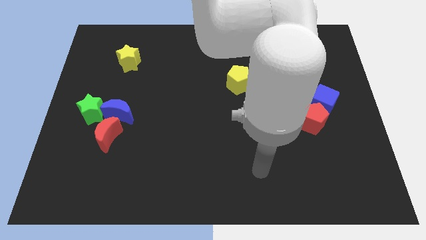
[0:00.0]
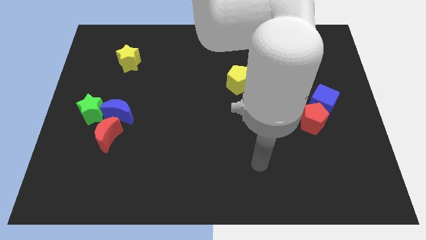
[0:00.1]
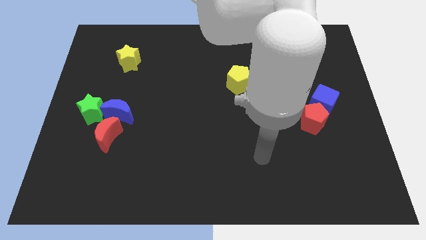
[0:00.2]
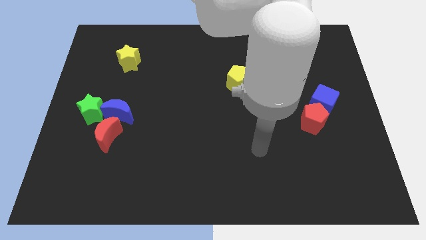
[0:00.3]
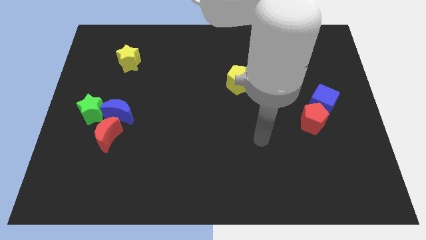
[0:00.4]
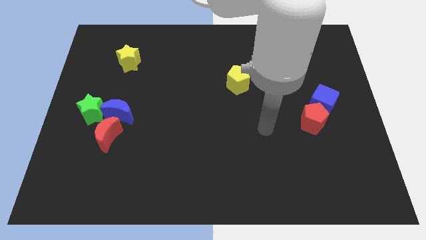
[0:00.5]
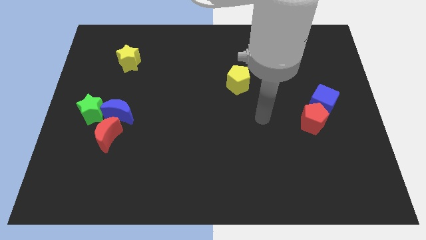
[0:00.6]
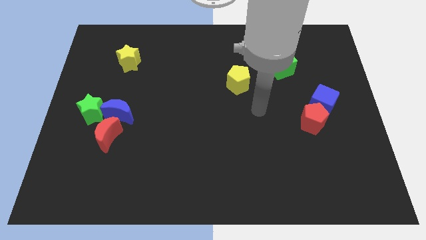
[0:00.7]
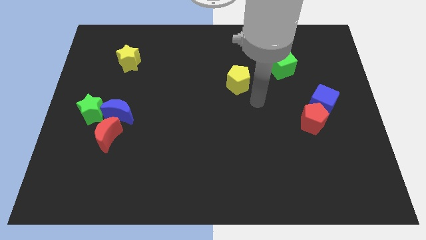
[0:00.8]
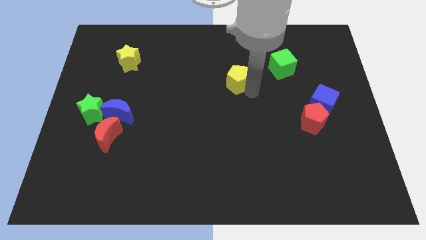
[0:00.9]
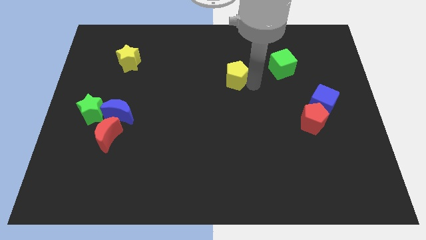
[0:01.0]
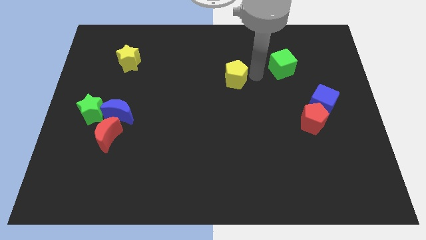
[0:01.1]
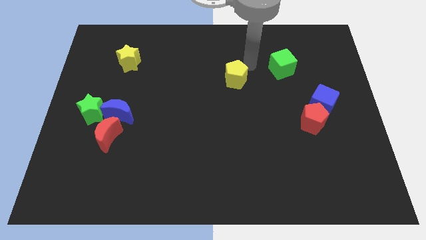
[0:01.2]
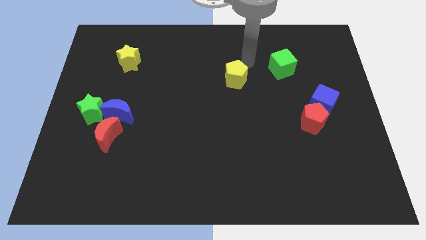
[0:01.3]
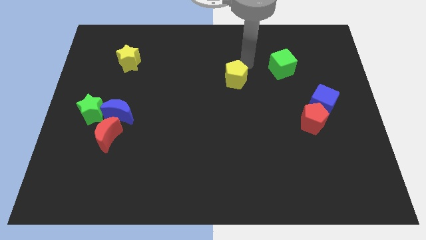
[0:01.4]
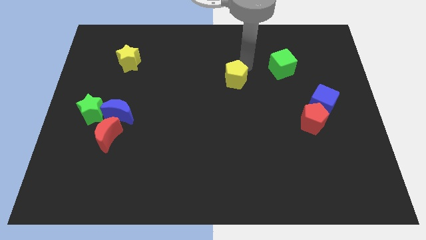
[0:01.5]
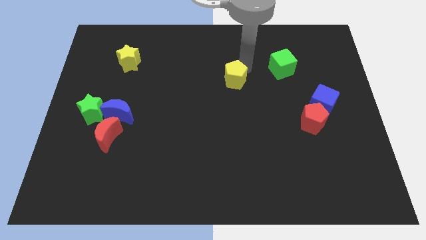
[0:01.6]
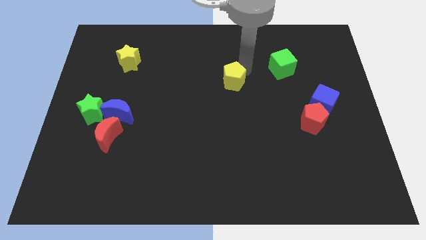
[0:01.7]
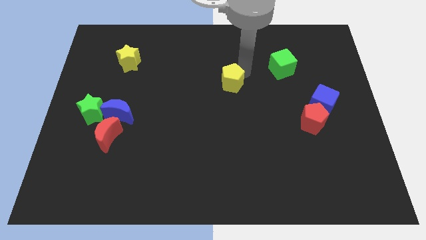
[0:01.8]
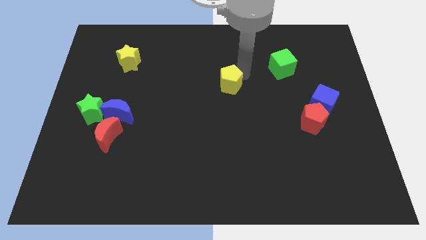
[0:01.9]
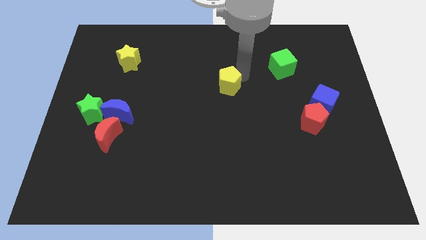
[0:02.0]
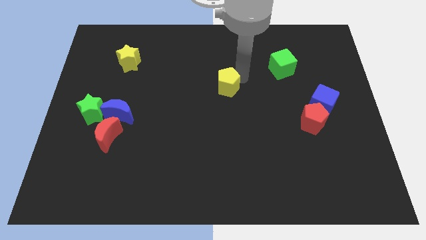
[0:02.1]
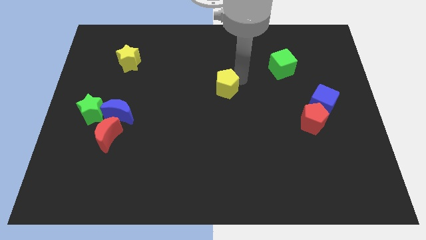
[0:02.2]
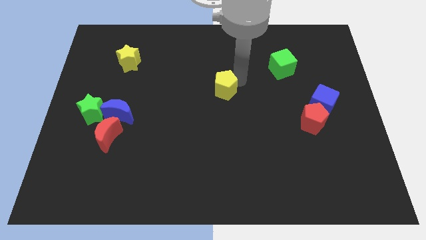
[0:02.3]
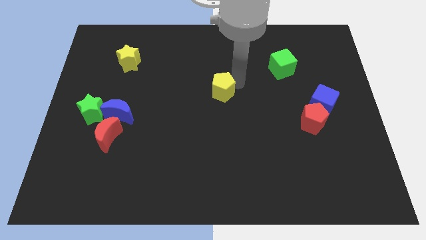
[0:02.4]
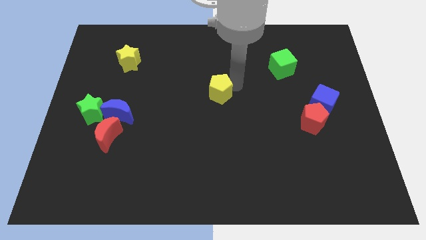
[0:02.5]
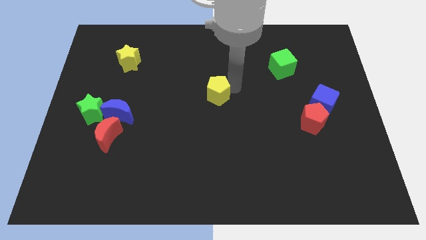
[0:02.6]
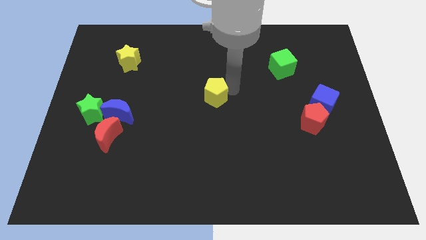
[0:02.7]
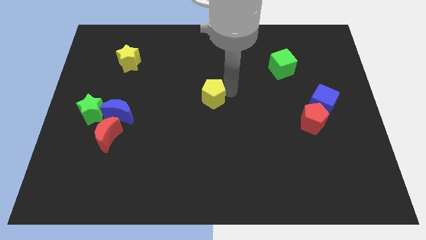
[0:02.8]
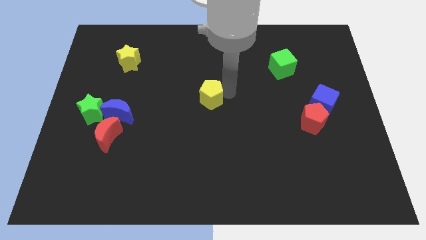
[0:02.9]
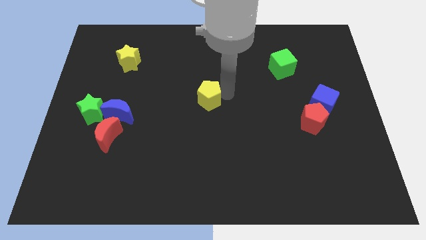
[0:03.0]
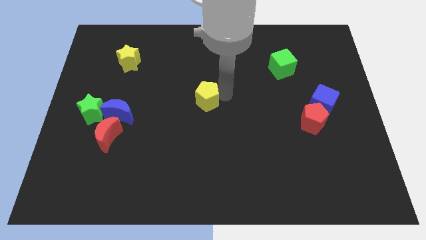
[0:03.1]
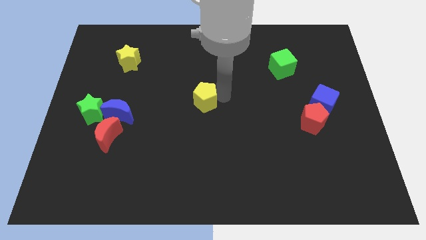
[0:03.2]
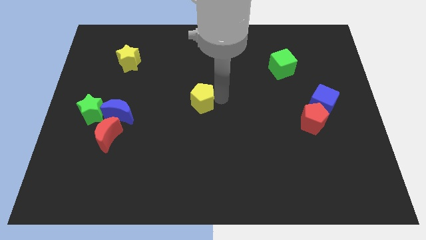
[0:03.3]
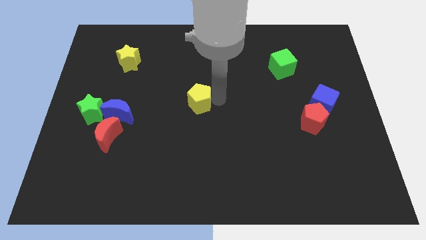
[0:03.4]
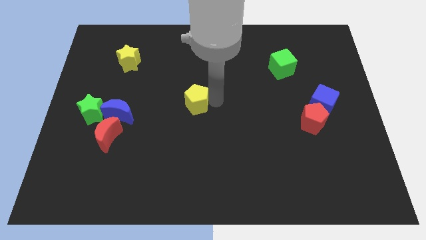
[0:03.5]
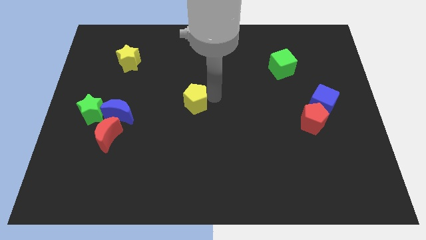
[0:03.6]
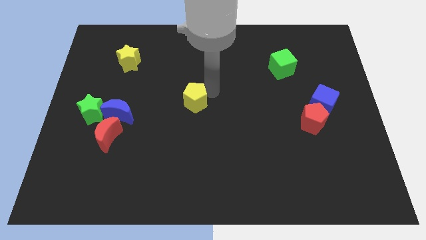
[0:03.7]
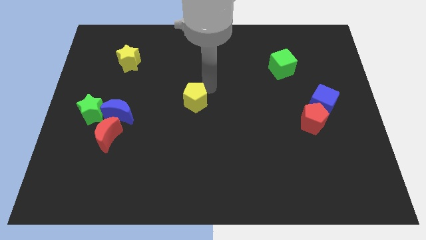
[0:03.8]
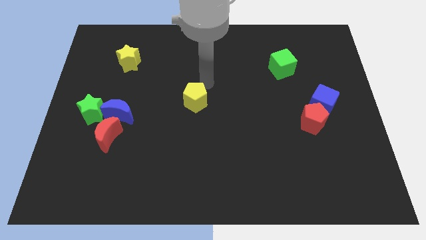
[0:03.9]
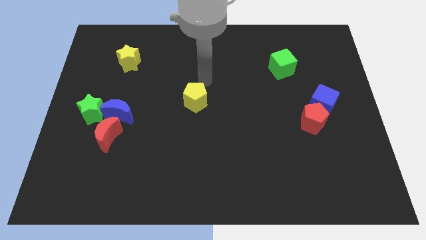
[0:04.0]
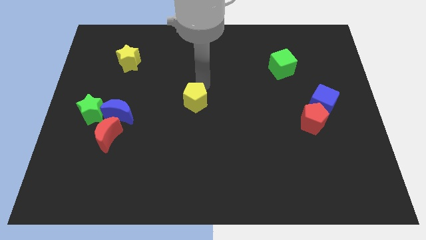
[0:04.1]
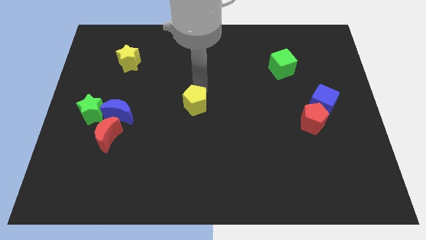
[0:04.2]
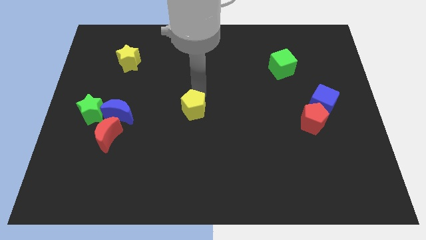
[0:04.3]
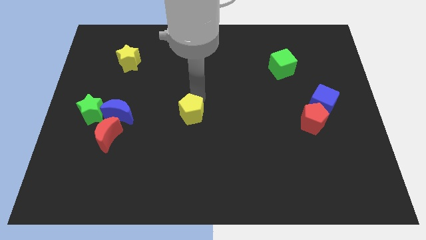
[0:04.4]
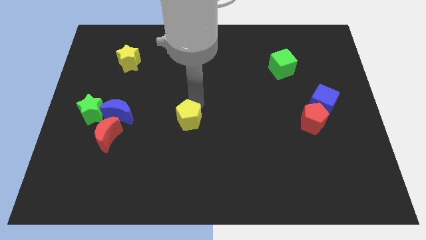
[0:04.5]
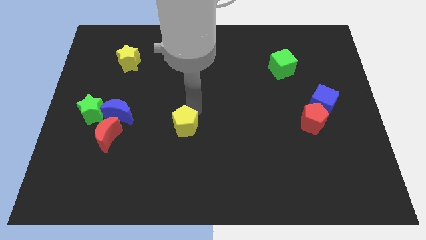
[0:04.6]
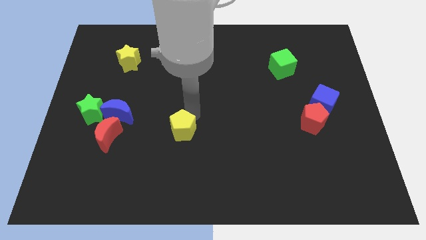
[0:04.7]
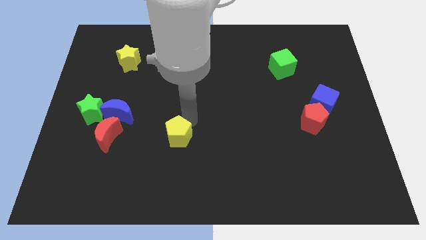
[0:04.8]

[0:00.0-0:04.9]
slide the yellow pentagon downwards and then to the left

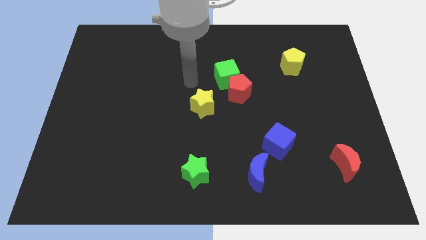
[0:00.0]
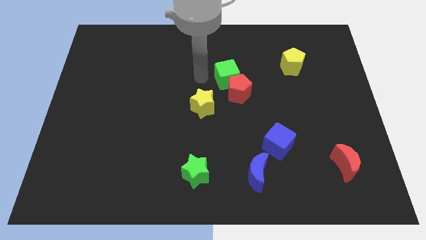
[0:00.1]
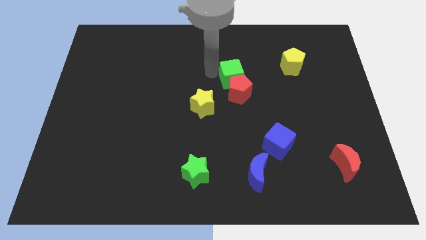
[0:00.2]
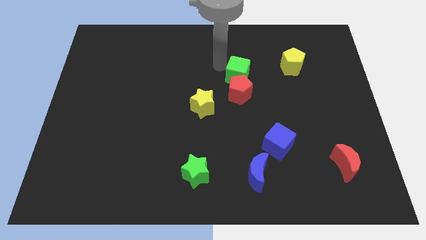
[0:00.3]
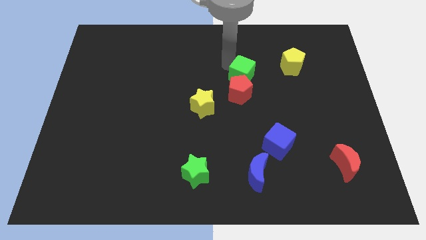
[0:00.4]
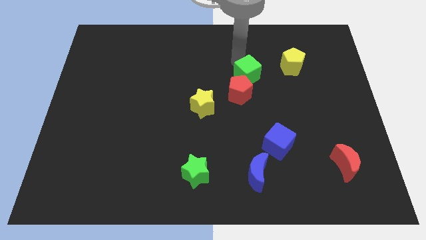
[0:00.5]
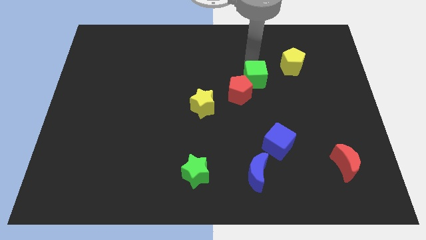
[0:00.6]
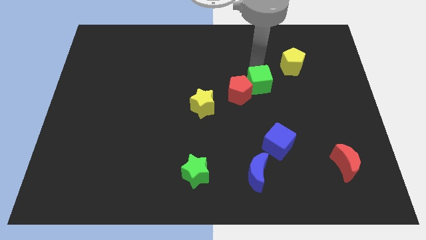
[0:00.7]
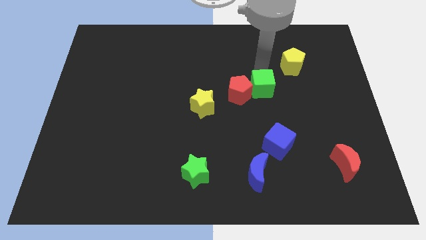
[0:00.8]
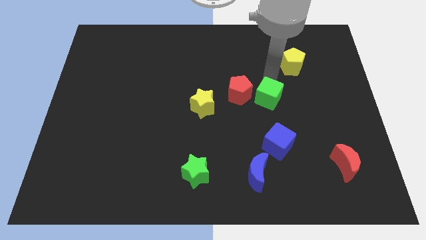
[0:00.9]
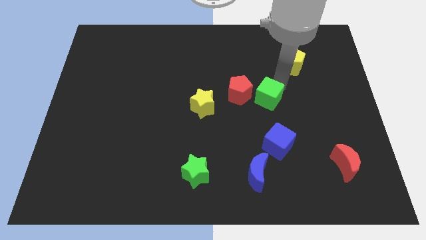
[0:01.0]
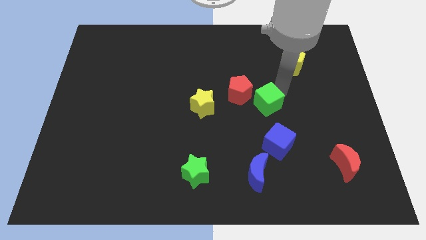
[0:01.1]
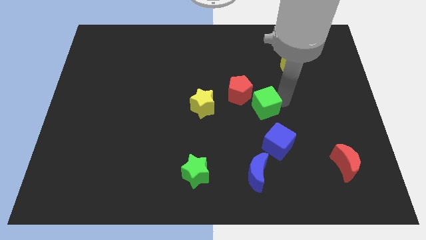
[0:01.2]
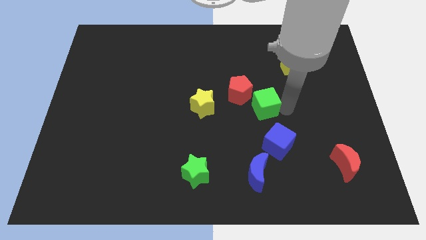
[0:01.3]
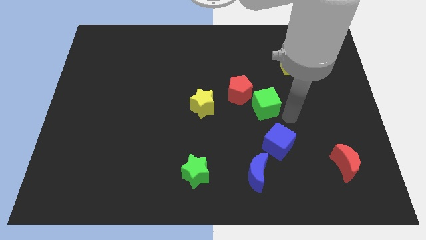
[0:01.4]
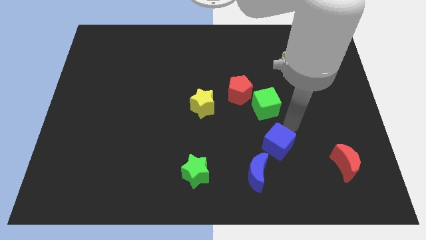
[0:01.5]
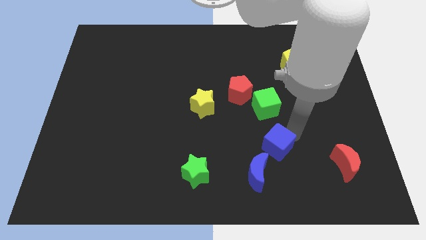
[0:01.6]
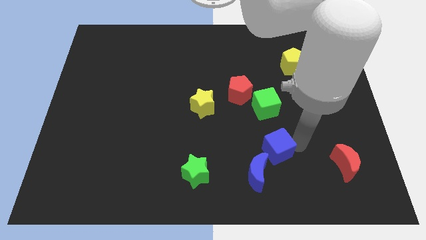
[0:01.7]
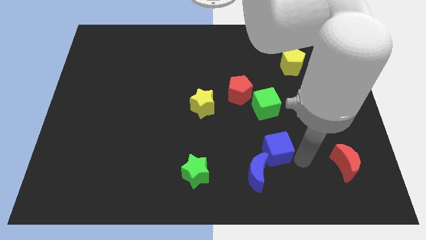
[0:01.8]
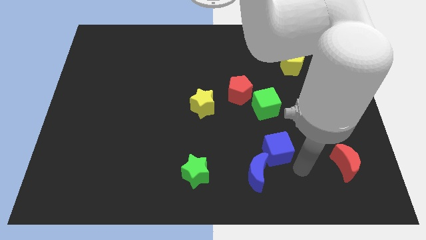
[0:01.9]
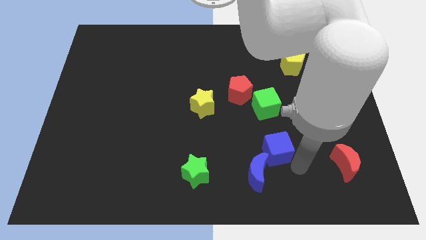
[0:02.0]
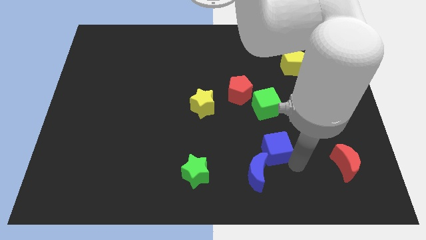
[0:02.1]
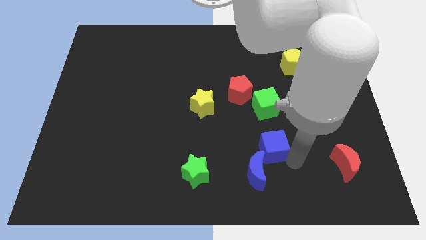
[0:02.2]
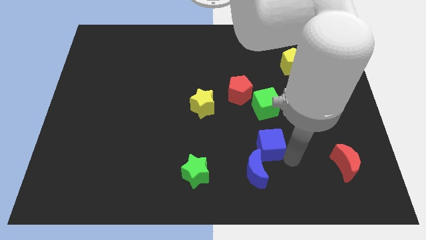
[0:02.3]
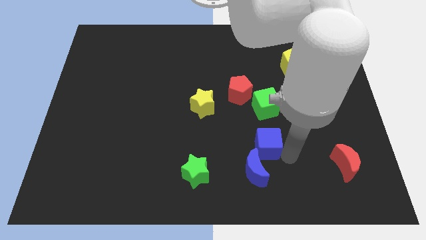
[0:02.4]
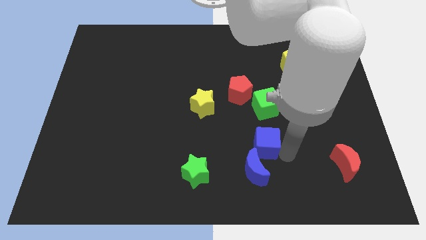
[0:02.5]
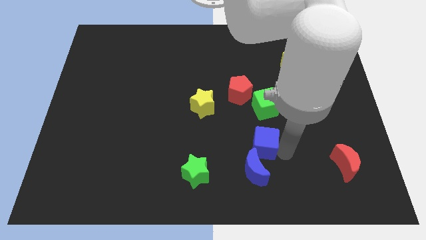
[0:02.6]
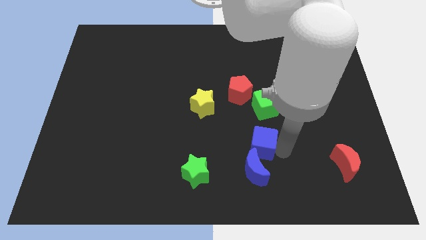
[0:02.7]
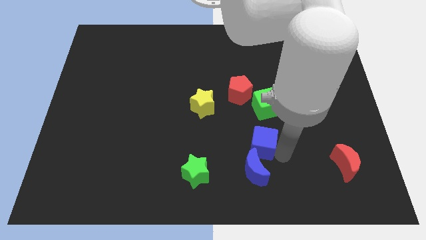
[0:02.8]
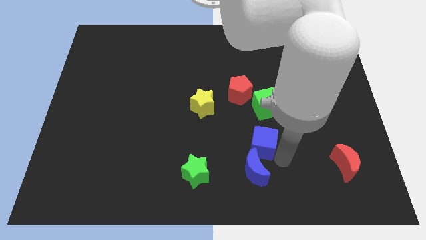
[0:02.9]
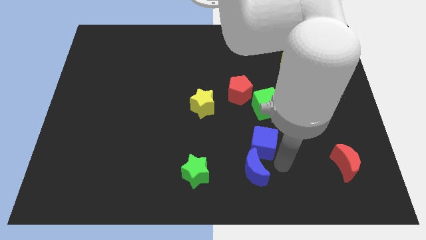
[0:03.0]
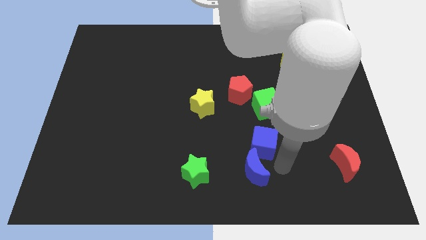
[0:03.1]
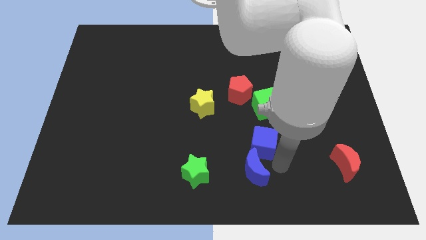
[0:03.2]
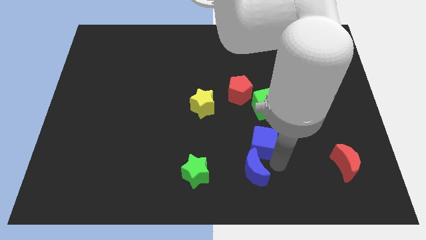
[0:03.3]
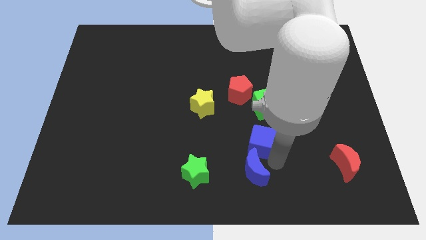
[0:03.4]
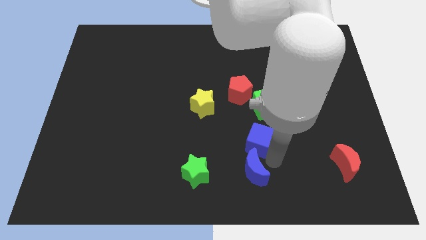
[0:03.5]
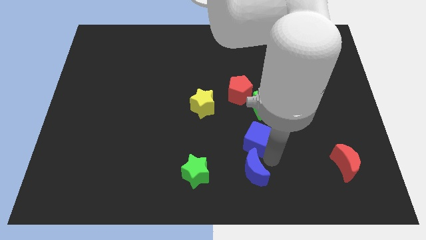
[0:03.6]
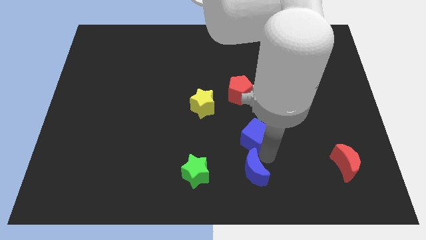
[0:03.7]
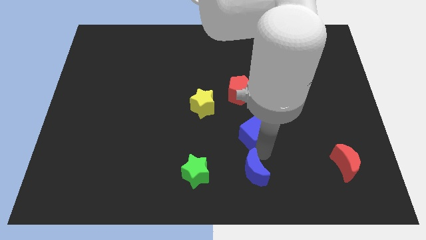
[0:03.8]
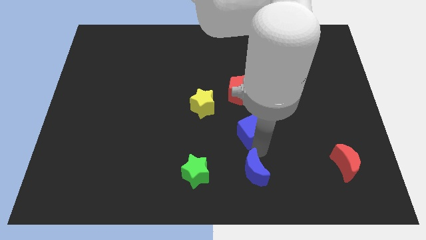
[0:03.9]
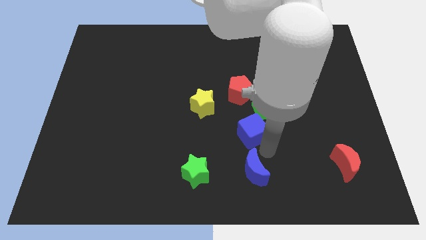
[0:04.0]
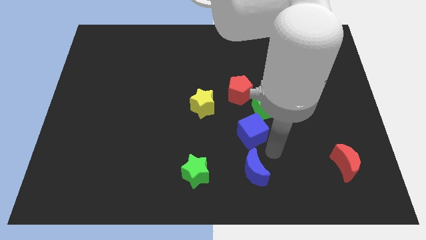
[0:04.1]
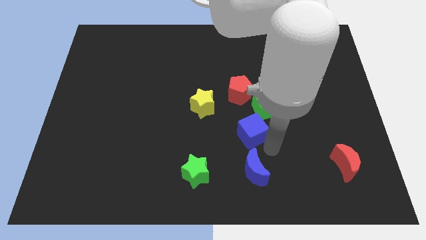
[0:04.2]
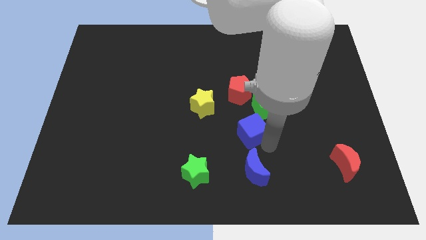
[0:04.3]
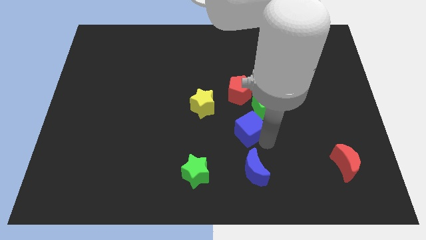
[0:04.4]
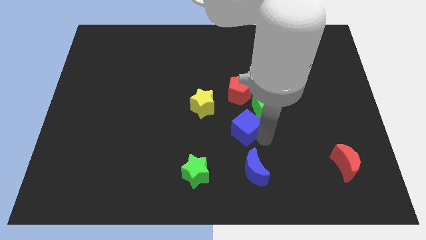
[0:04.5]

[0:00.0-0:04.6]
slightly slide the blue cube diagonally up and left
